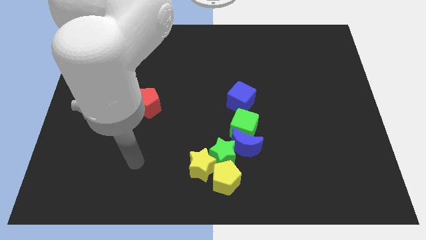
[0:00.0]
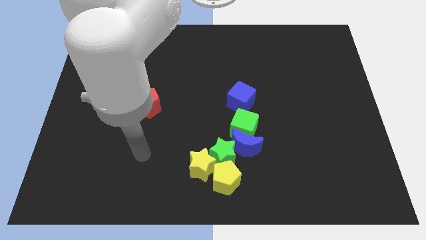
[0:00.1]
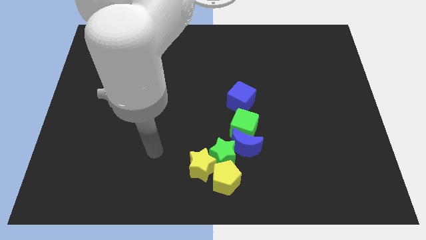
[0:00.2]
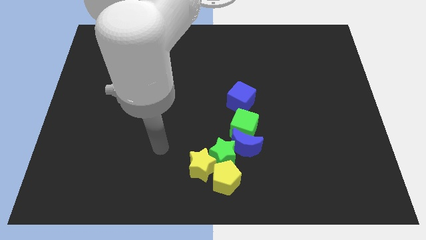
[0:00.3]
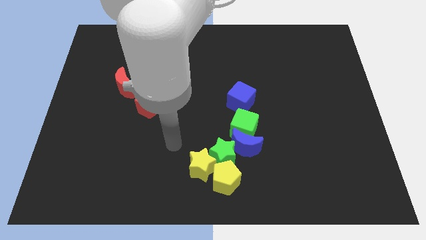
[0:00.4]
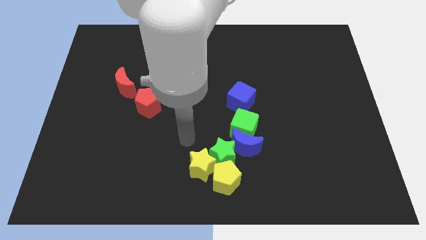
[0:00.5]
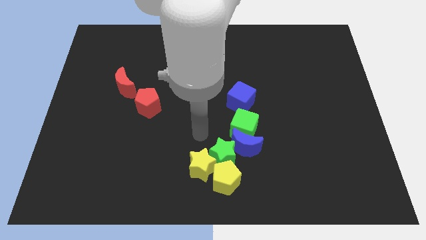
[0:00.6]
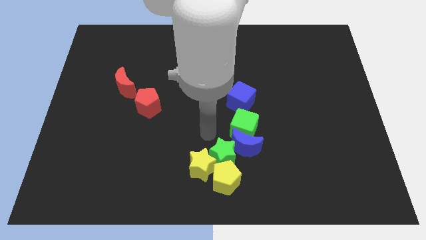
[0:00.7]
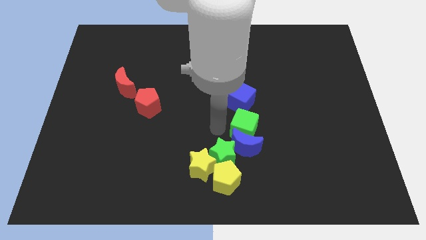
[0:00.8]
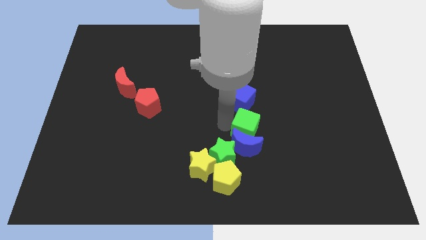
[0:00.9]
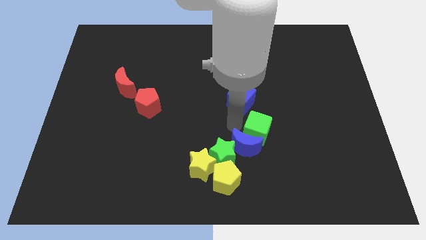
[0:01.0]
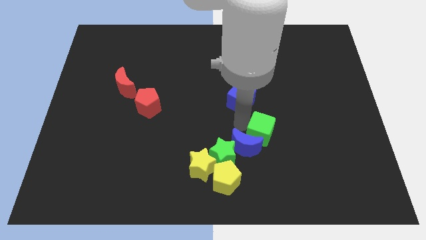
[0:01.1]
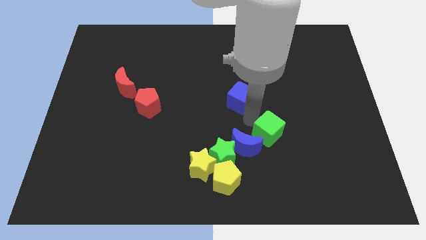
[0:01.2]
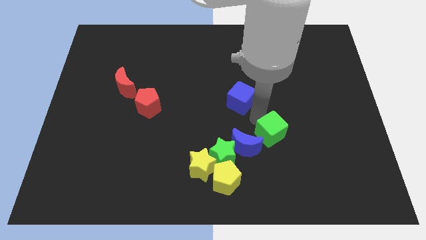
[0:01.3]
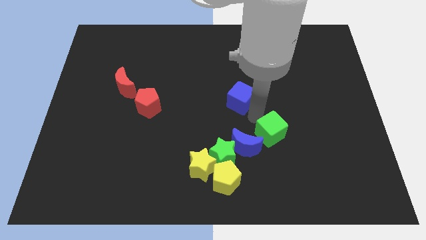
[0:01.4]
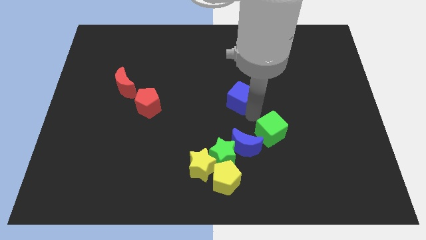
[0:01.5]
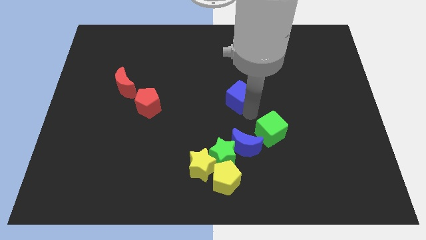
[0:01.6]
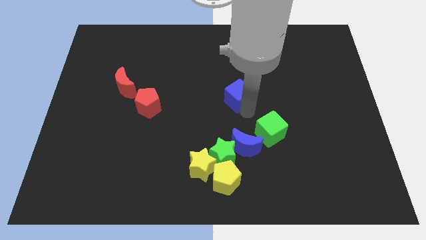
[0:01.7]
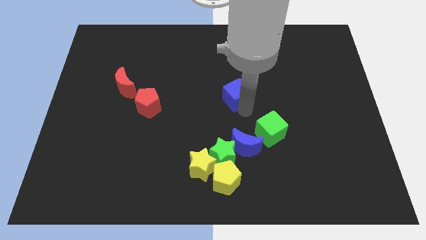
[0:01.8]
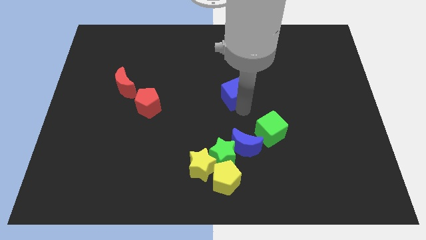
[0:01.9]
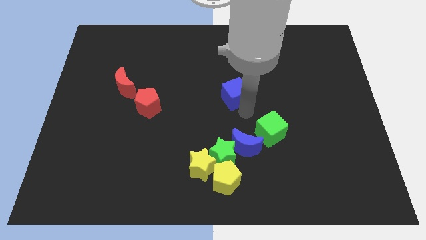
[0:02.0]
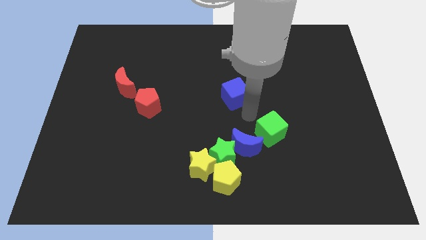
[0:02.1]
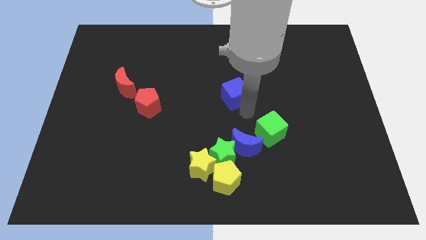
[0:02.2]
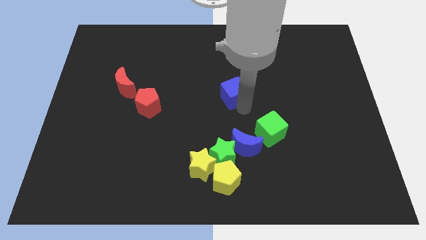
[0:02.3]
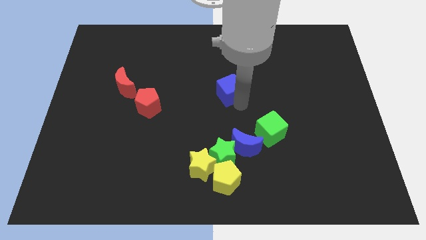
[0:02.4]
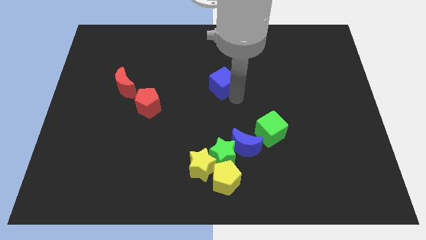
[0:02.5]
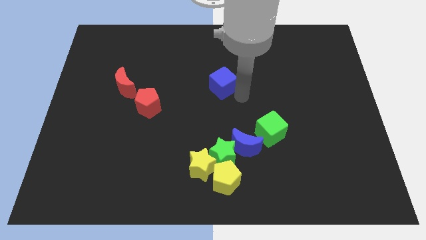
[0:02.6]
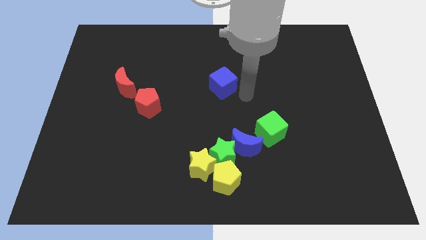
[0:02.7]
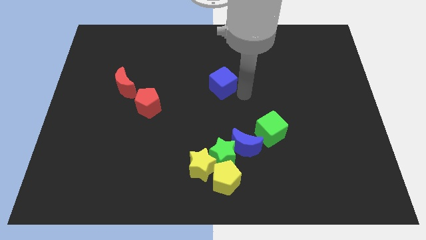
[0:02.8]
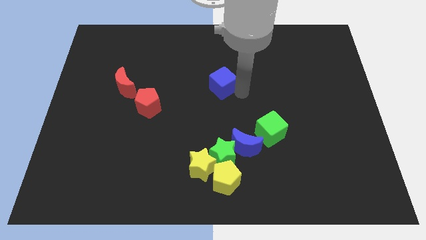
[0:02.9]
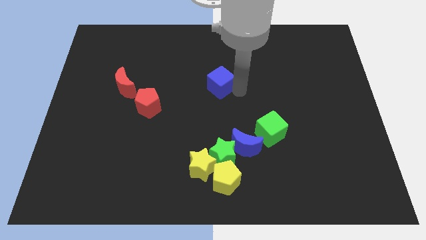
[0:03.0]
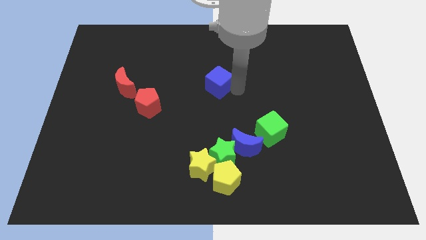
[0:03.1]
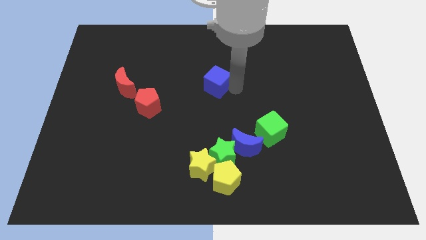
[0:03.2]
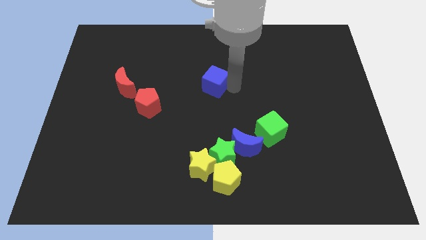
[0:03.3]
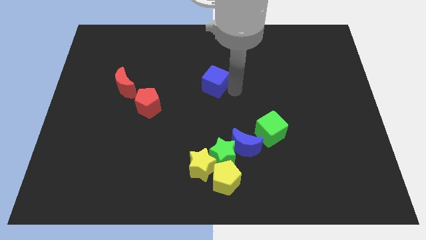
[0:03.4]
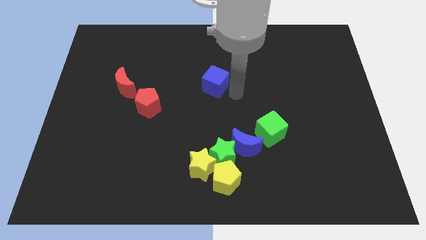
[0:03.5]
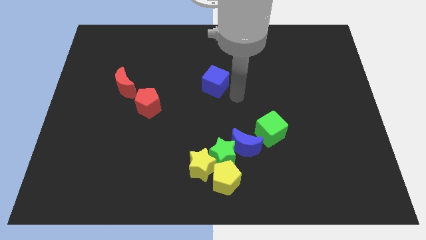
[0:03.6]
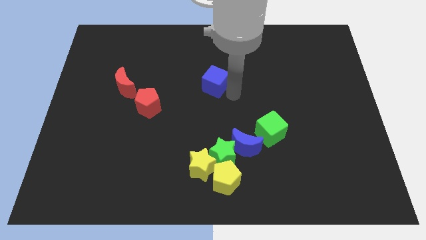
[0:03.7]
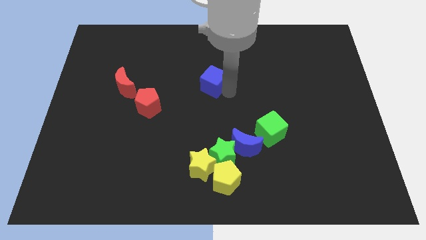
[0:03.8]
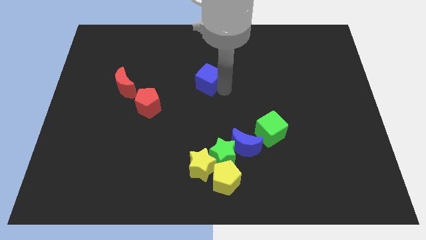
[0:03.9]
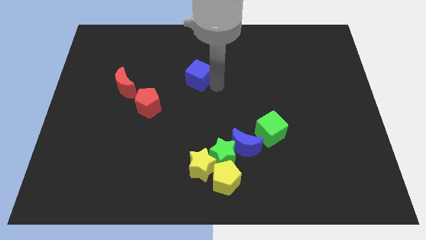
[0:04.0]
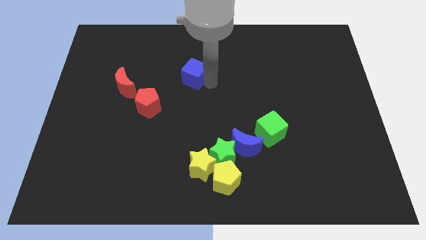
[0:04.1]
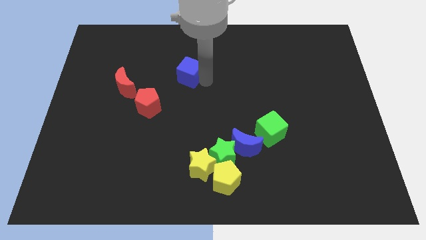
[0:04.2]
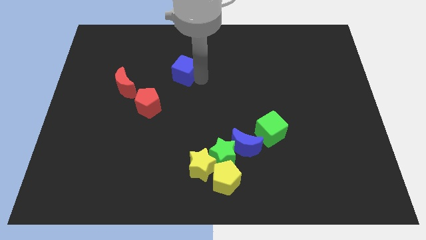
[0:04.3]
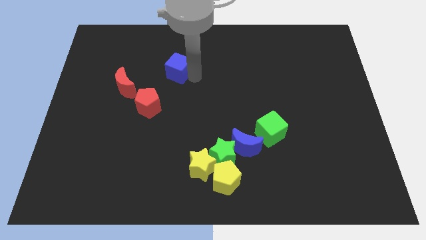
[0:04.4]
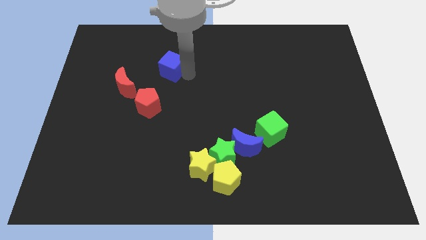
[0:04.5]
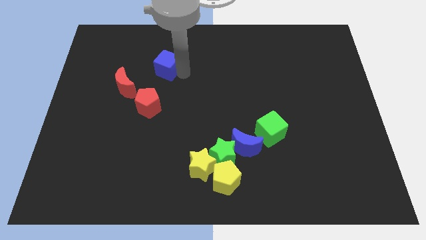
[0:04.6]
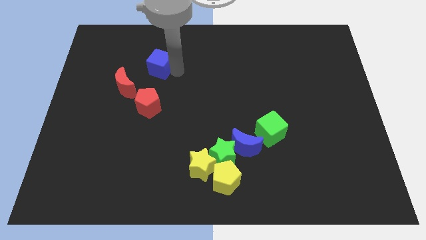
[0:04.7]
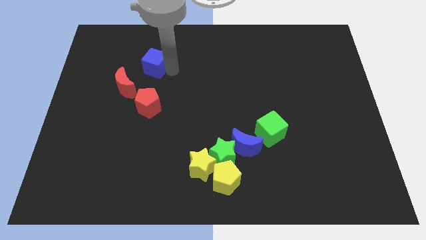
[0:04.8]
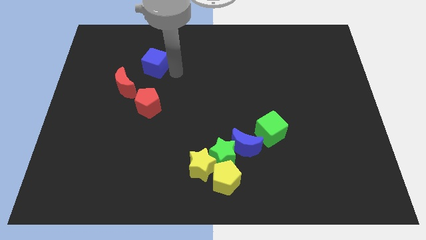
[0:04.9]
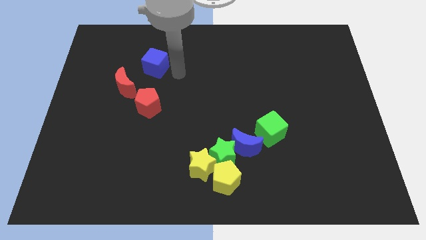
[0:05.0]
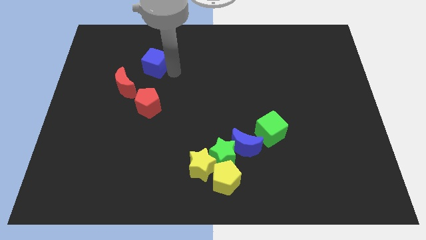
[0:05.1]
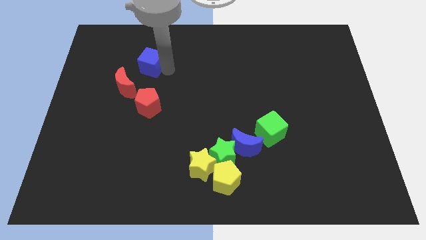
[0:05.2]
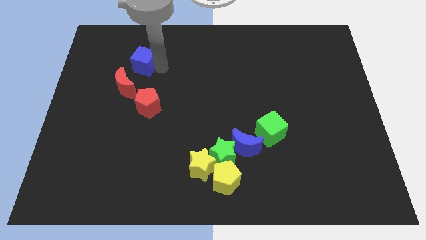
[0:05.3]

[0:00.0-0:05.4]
slide the blue cube to the top side of the red moon

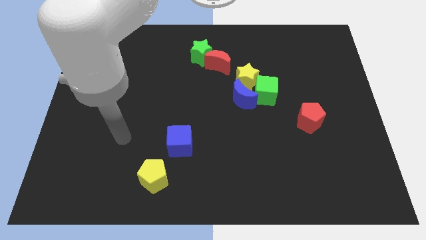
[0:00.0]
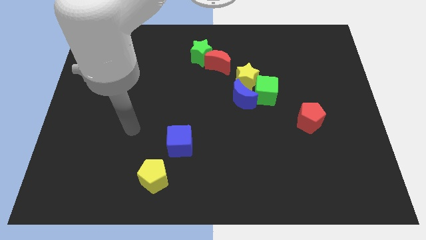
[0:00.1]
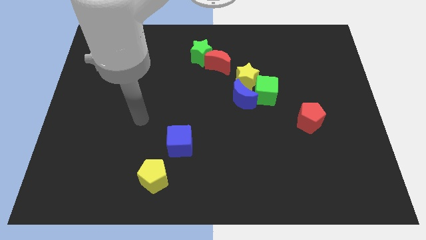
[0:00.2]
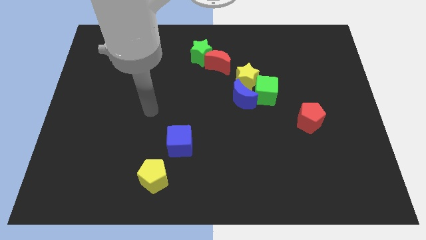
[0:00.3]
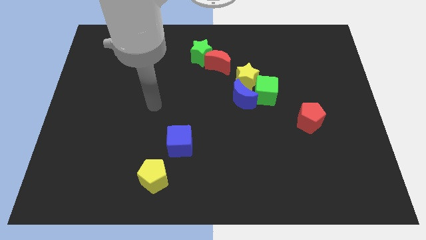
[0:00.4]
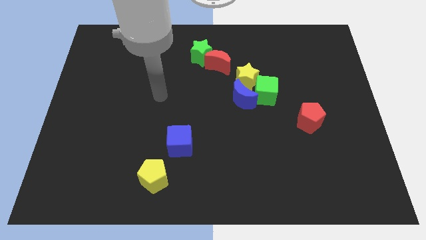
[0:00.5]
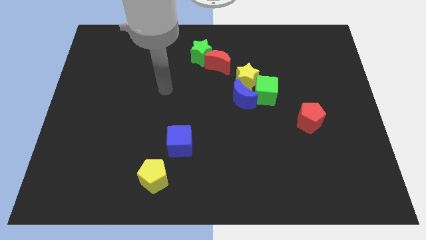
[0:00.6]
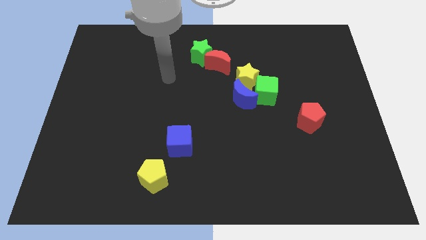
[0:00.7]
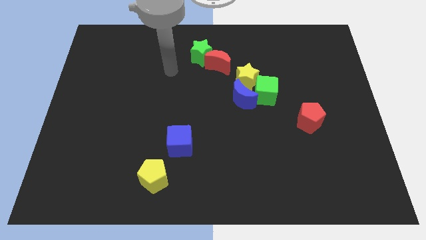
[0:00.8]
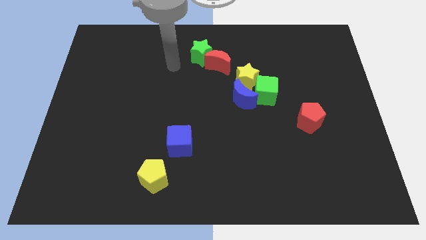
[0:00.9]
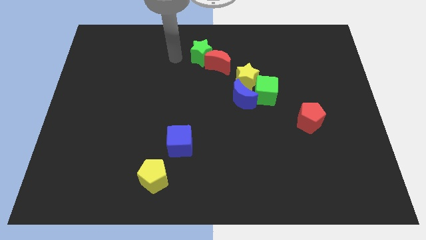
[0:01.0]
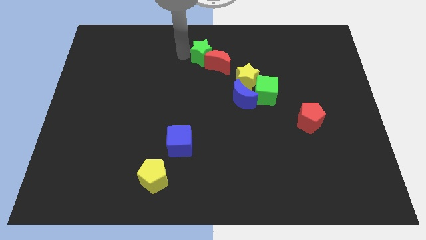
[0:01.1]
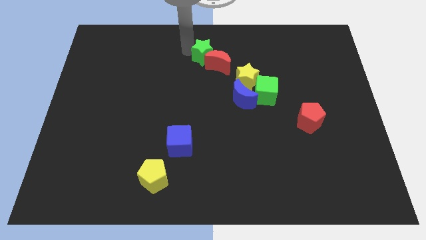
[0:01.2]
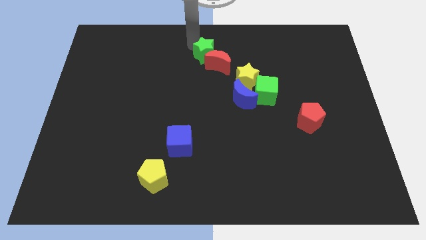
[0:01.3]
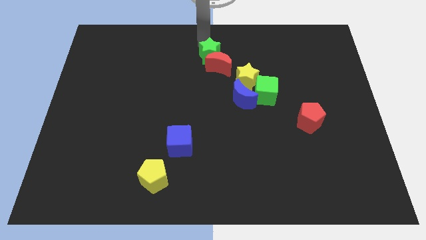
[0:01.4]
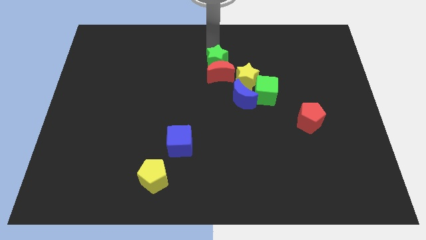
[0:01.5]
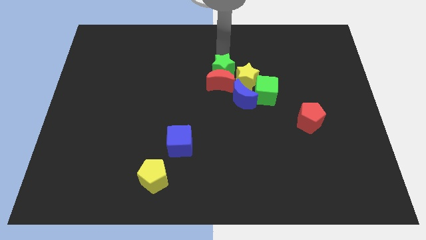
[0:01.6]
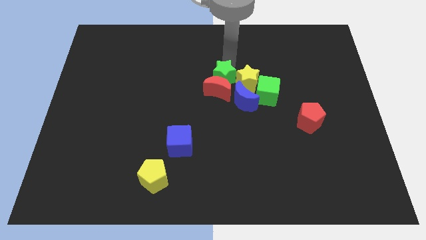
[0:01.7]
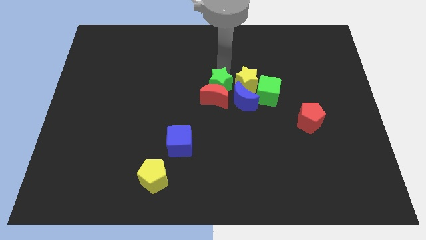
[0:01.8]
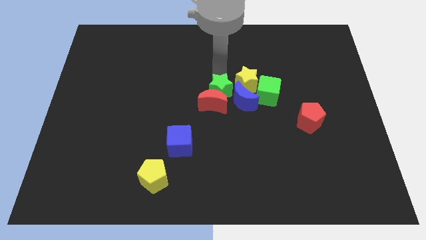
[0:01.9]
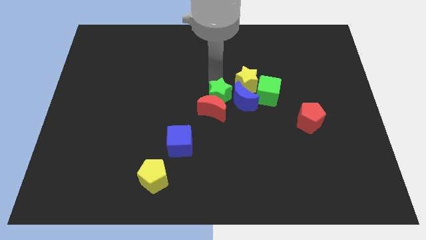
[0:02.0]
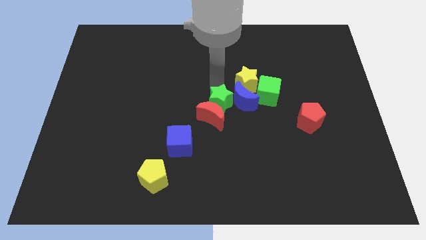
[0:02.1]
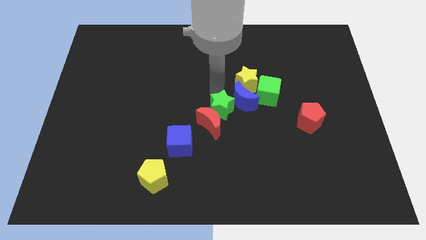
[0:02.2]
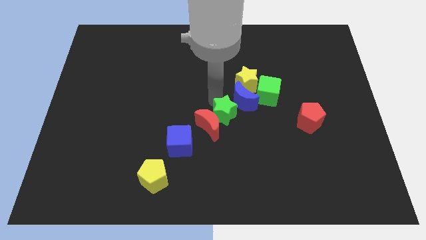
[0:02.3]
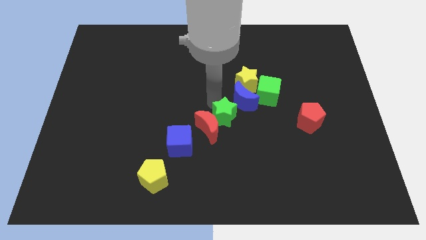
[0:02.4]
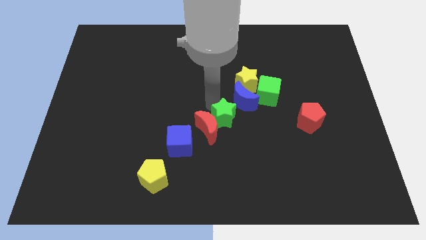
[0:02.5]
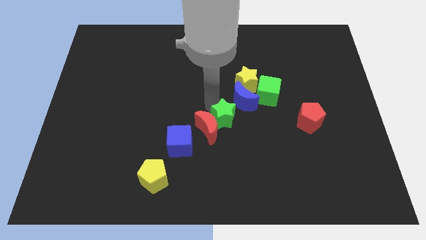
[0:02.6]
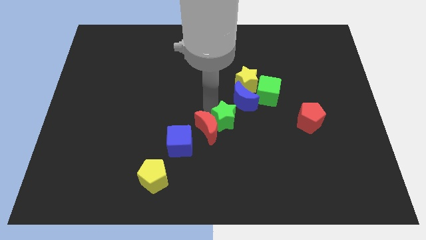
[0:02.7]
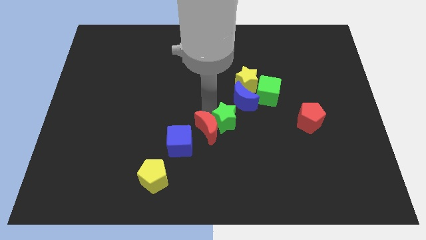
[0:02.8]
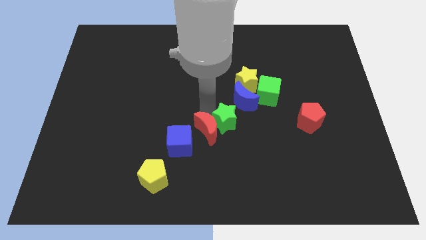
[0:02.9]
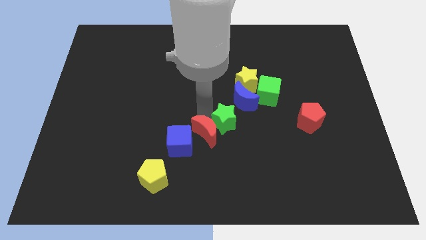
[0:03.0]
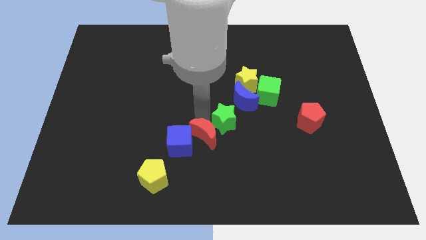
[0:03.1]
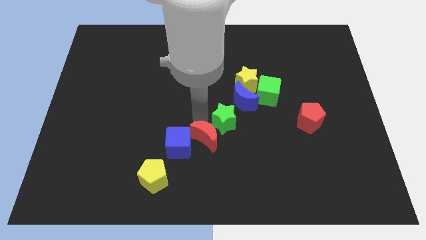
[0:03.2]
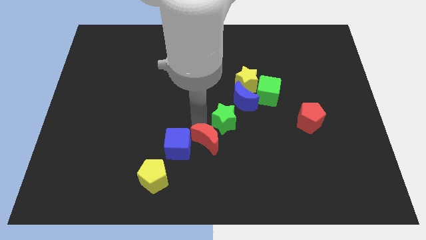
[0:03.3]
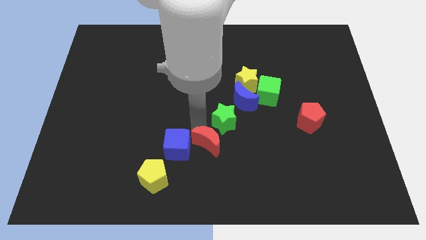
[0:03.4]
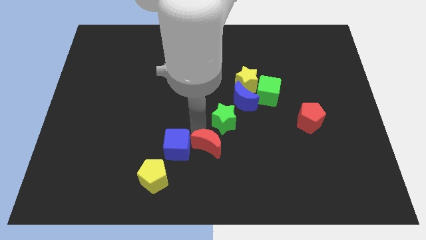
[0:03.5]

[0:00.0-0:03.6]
move the red moon to the bottom right of the blue cube
